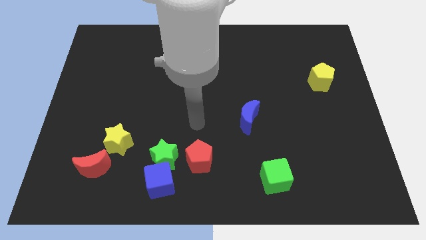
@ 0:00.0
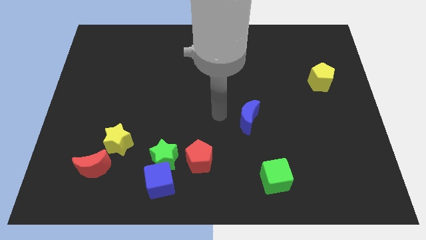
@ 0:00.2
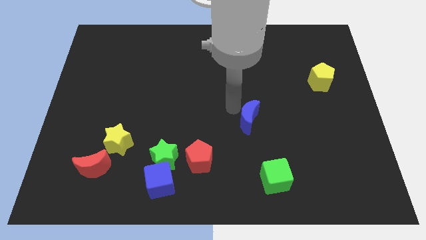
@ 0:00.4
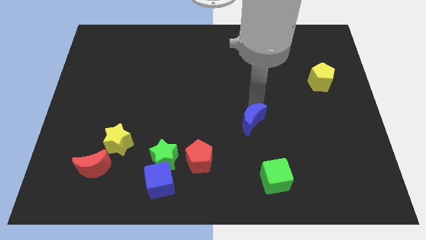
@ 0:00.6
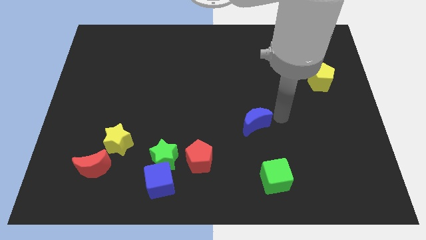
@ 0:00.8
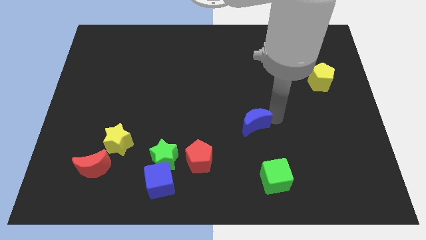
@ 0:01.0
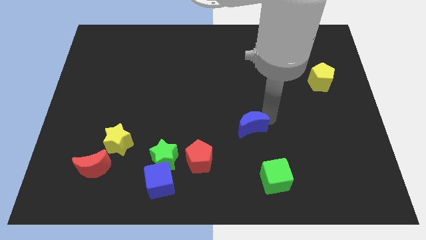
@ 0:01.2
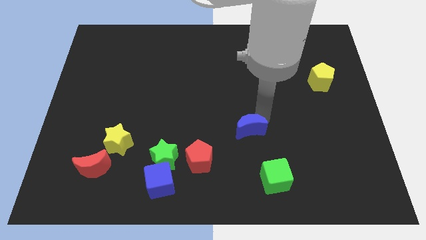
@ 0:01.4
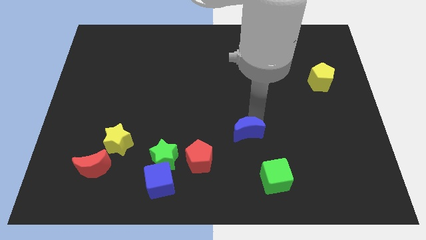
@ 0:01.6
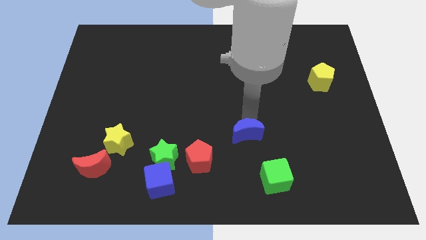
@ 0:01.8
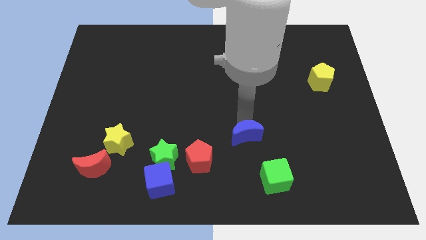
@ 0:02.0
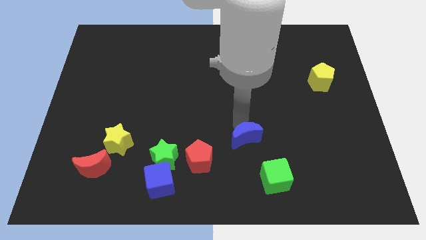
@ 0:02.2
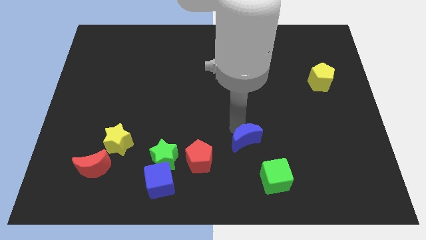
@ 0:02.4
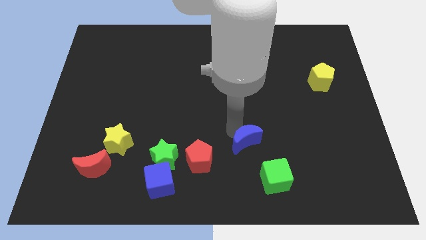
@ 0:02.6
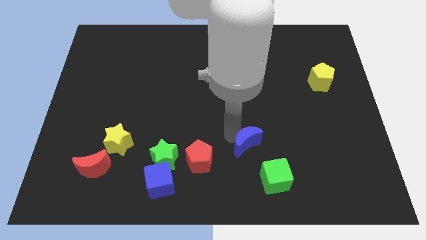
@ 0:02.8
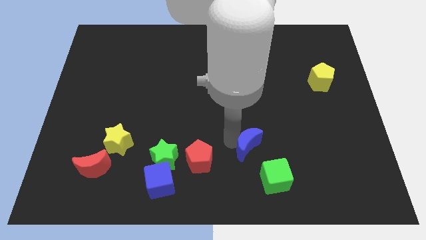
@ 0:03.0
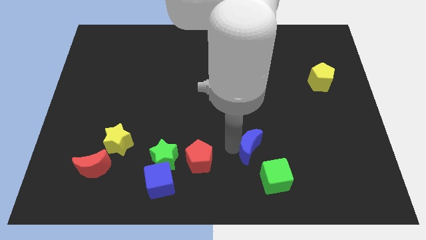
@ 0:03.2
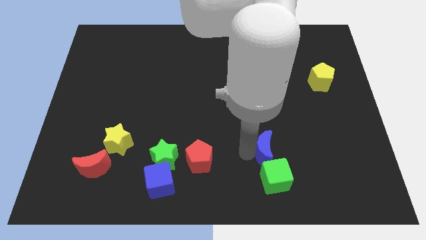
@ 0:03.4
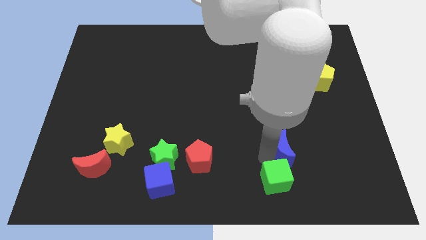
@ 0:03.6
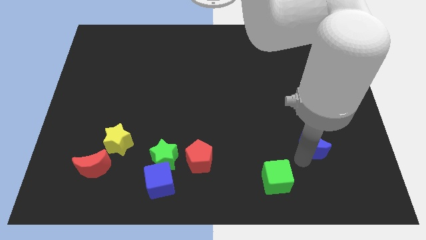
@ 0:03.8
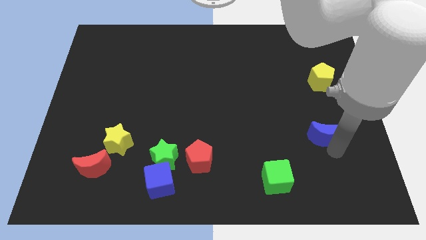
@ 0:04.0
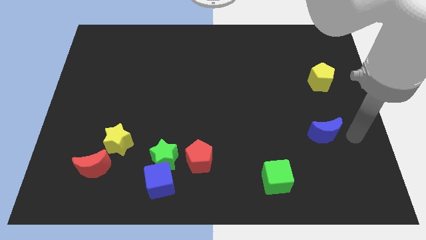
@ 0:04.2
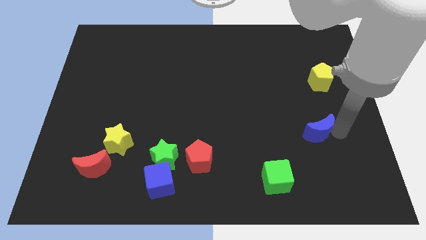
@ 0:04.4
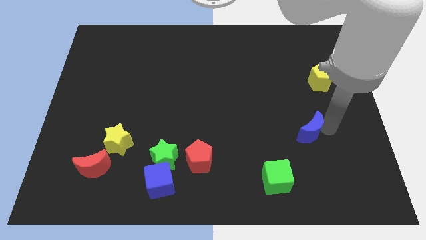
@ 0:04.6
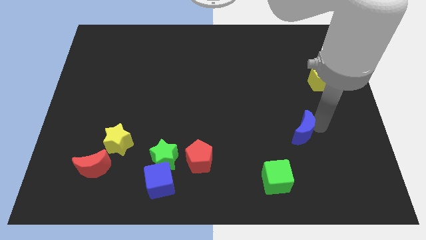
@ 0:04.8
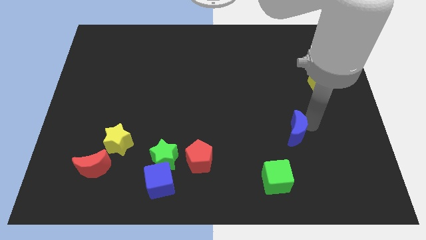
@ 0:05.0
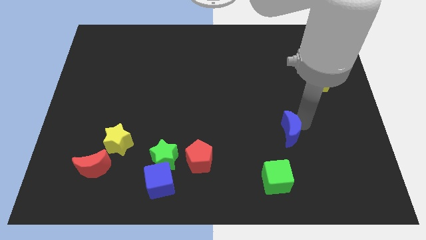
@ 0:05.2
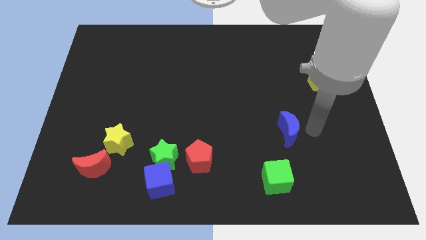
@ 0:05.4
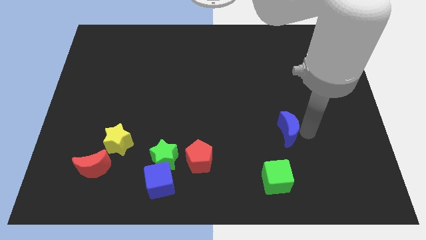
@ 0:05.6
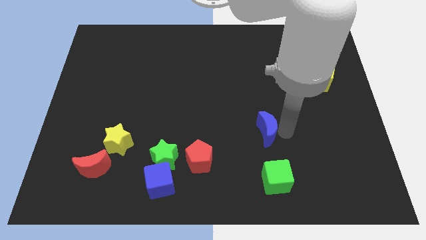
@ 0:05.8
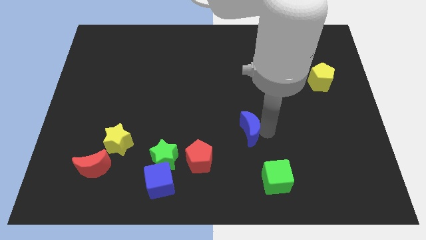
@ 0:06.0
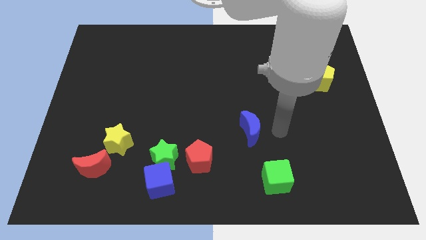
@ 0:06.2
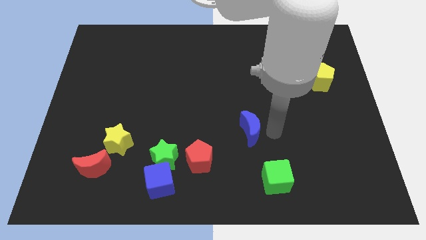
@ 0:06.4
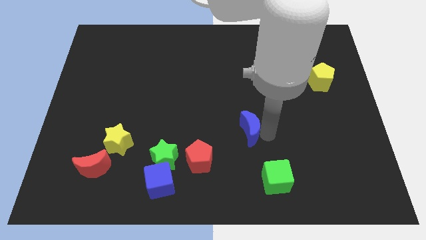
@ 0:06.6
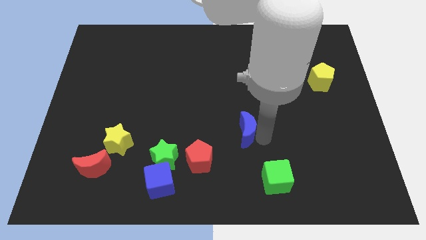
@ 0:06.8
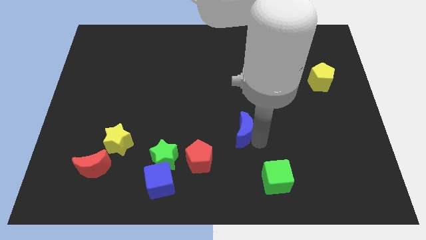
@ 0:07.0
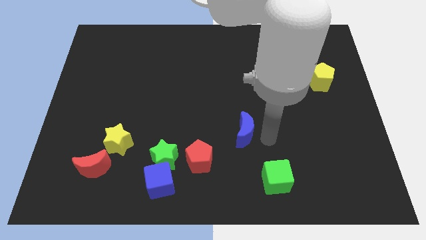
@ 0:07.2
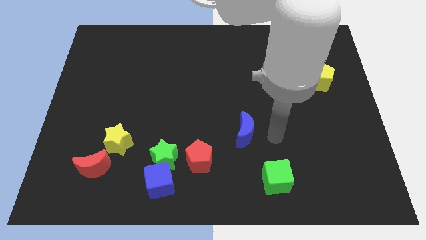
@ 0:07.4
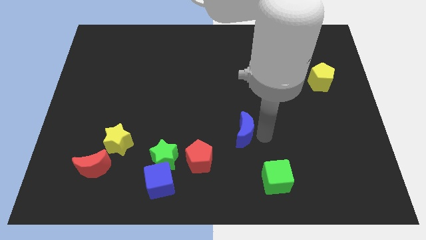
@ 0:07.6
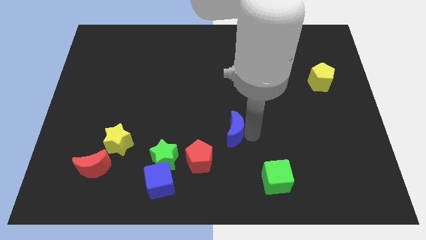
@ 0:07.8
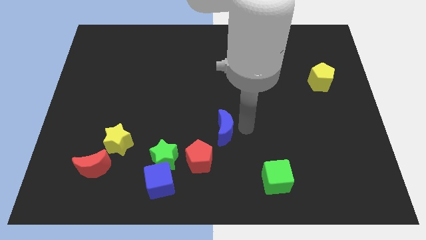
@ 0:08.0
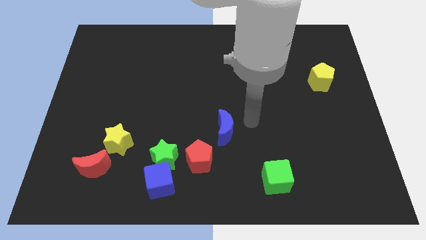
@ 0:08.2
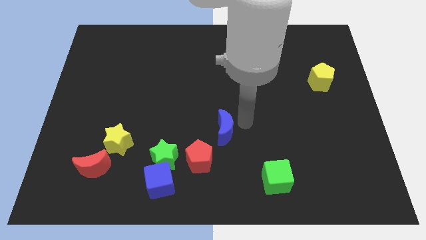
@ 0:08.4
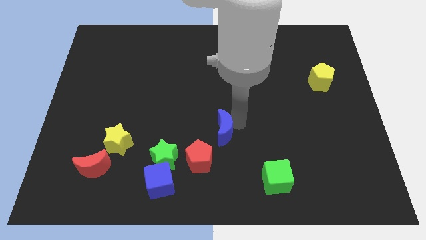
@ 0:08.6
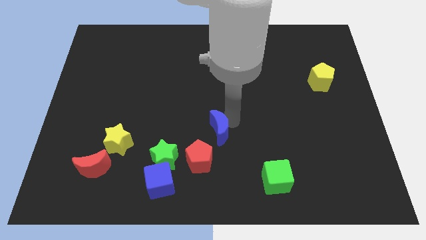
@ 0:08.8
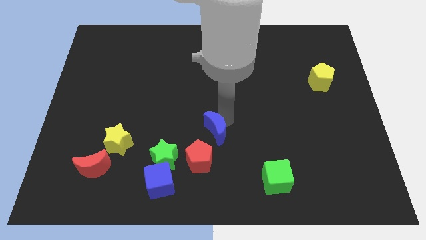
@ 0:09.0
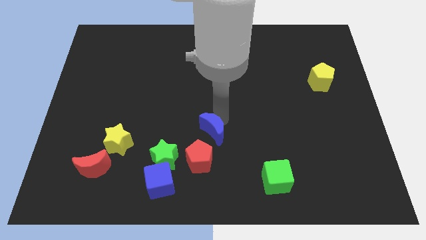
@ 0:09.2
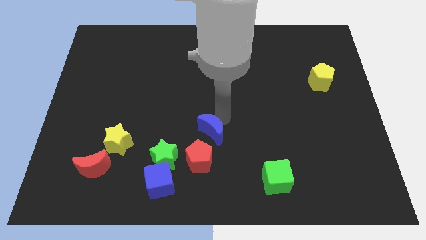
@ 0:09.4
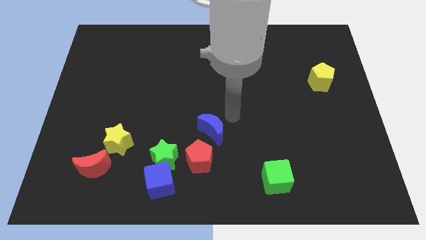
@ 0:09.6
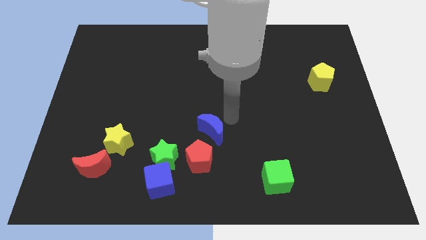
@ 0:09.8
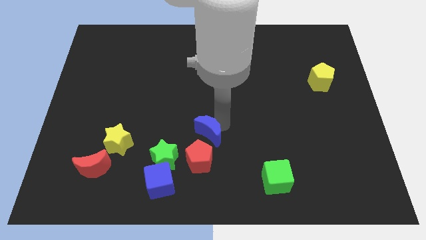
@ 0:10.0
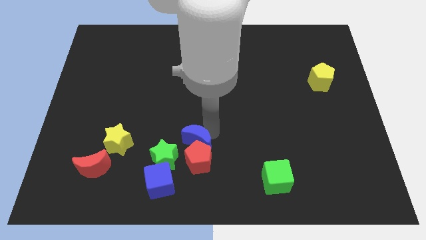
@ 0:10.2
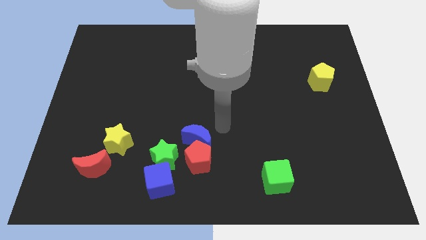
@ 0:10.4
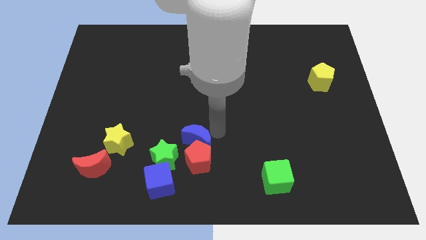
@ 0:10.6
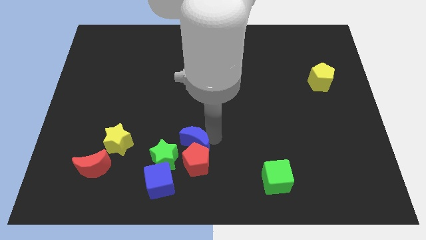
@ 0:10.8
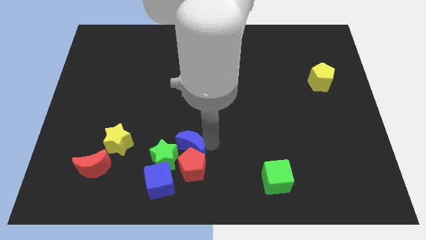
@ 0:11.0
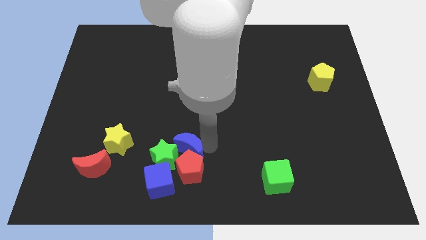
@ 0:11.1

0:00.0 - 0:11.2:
push the blue moon towards the green star
